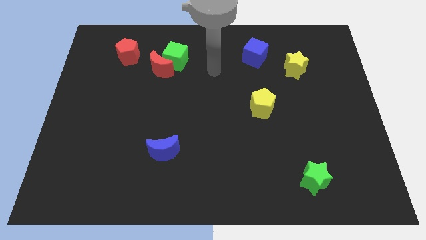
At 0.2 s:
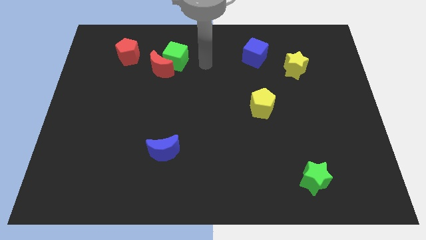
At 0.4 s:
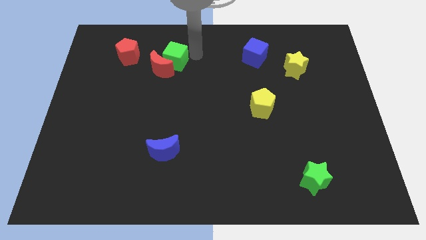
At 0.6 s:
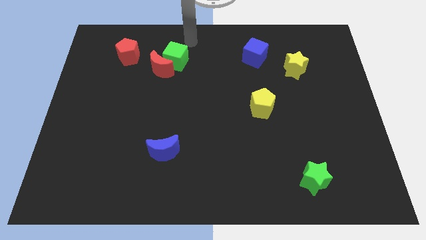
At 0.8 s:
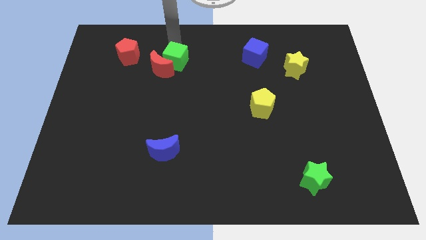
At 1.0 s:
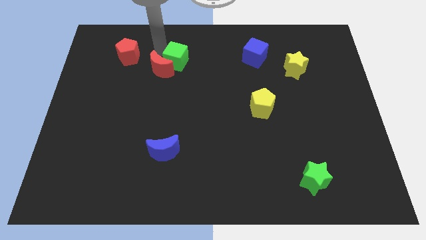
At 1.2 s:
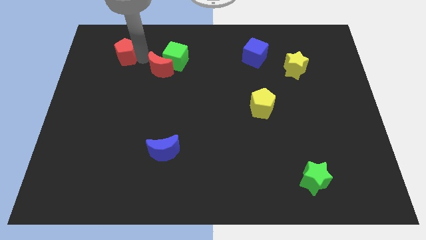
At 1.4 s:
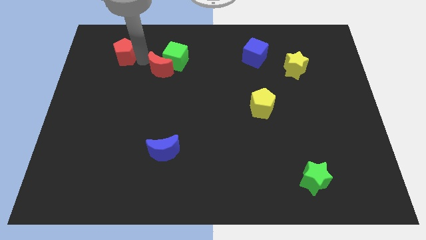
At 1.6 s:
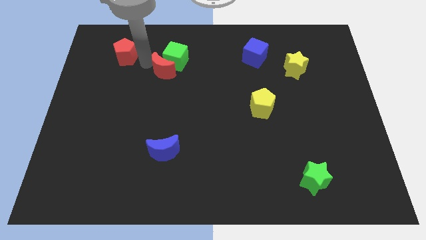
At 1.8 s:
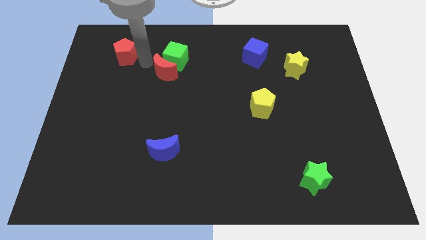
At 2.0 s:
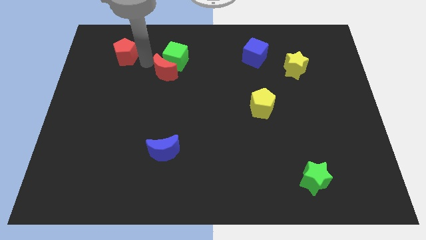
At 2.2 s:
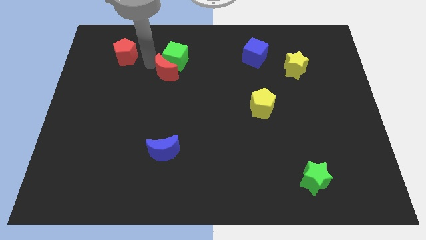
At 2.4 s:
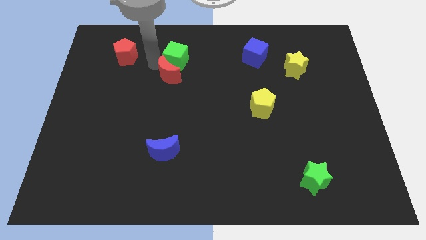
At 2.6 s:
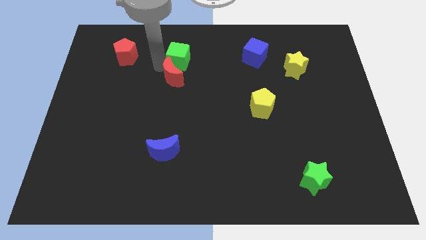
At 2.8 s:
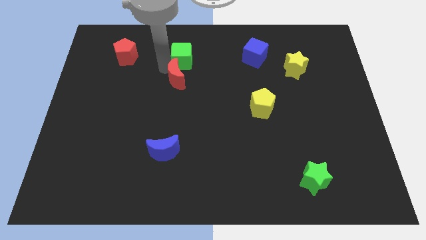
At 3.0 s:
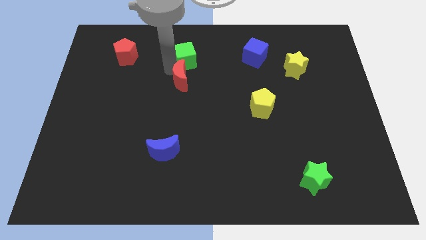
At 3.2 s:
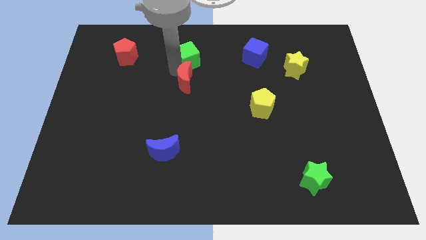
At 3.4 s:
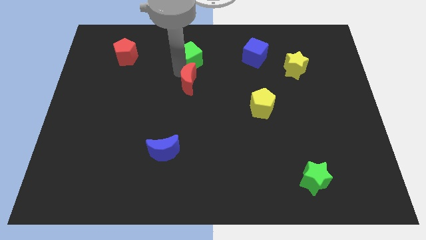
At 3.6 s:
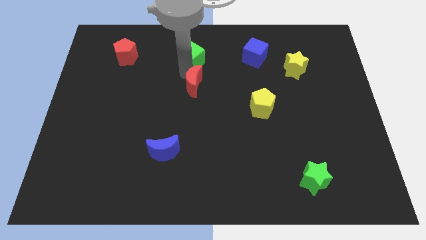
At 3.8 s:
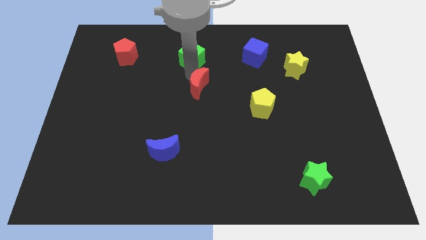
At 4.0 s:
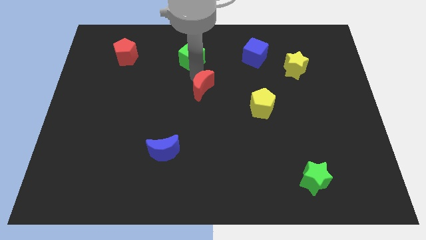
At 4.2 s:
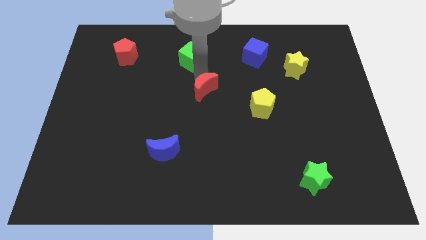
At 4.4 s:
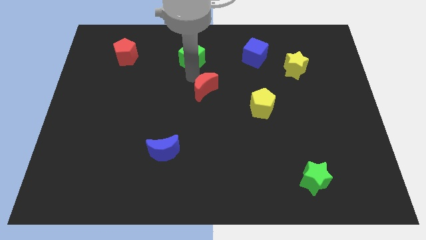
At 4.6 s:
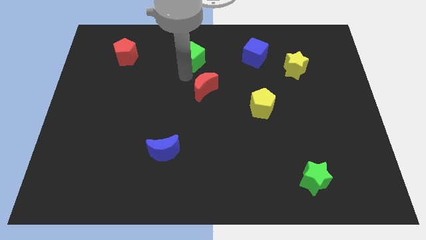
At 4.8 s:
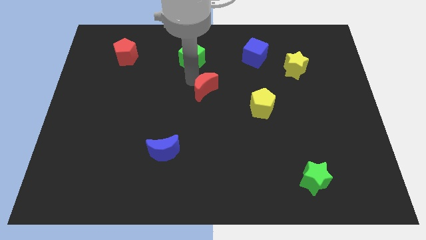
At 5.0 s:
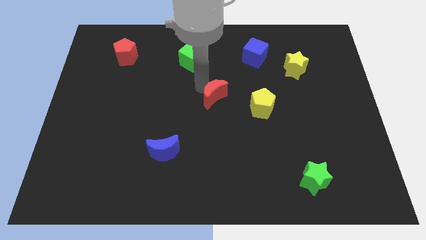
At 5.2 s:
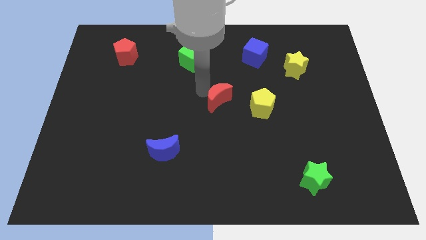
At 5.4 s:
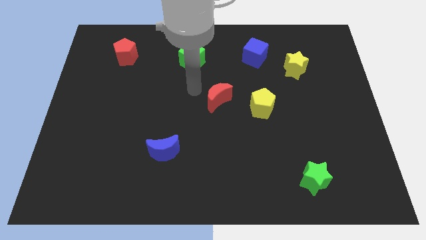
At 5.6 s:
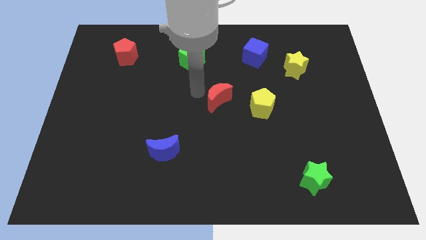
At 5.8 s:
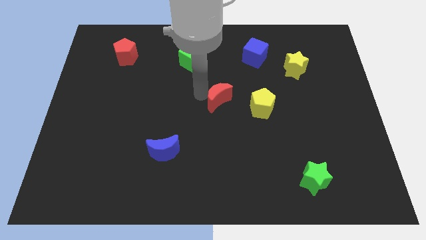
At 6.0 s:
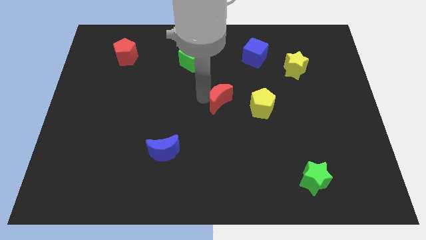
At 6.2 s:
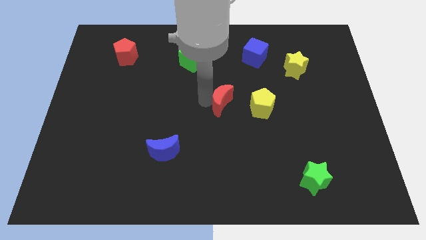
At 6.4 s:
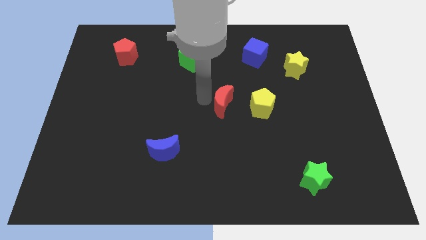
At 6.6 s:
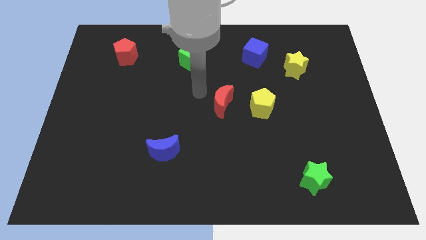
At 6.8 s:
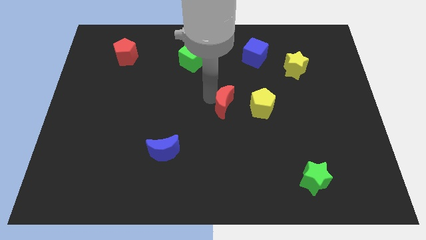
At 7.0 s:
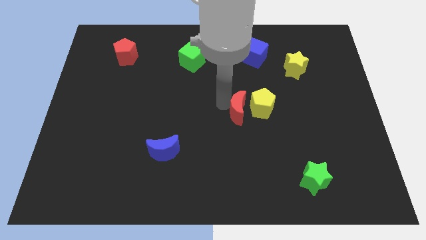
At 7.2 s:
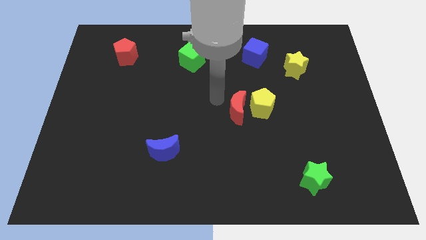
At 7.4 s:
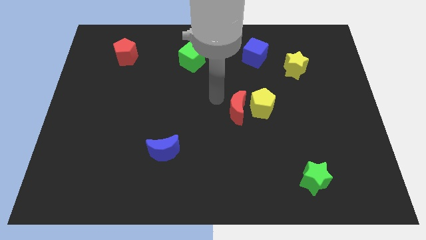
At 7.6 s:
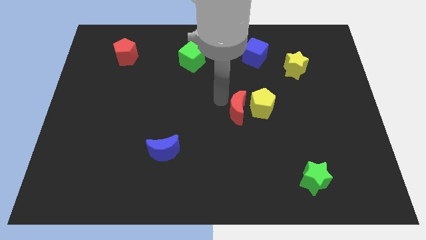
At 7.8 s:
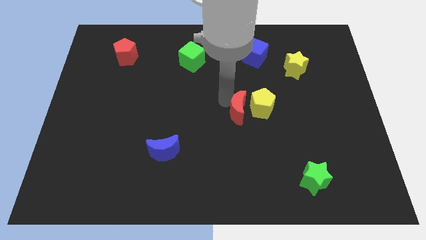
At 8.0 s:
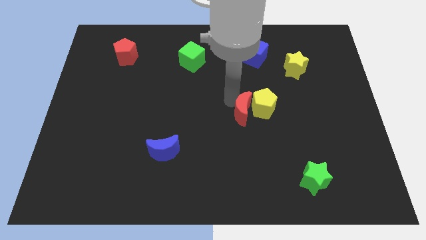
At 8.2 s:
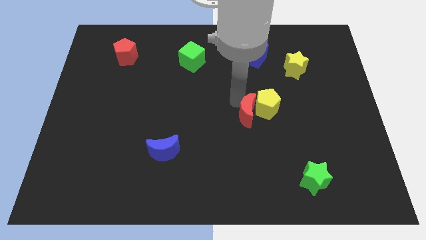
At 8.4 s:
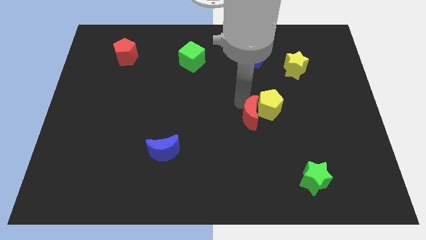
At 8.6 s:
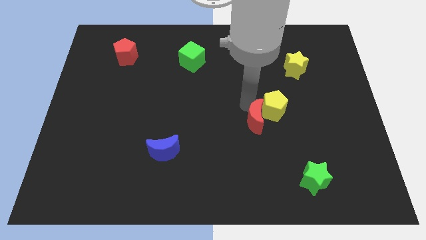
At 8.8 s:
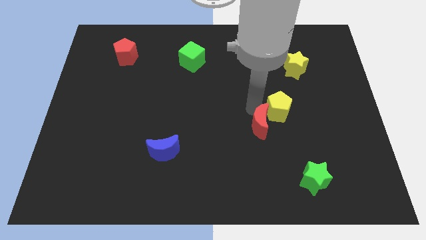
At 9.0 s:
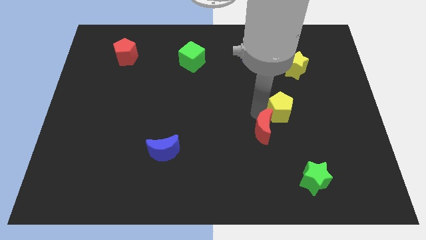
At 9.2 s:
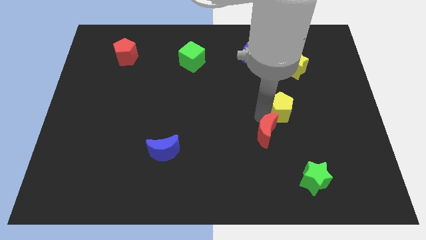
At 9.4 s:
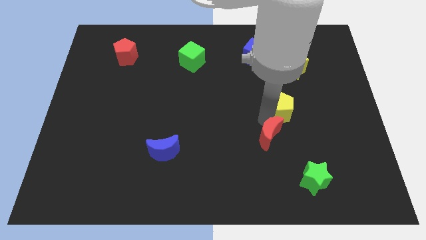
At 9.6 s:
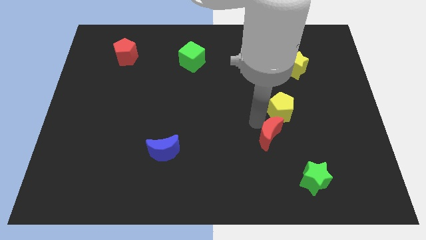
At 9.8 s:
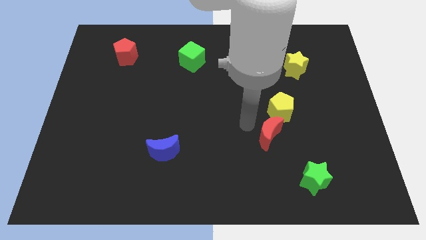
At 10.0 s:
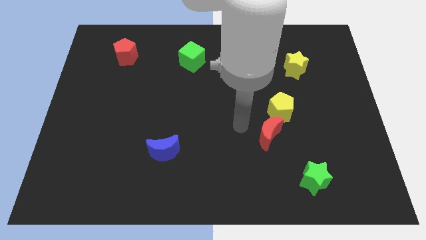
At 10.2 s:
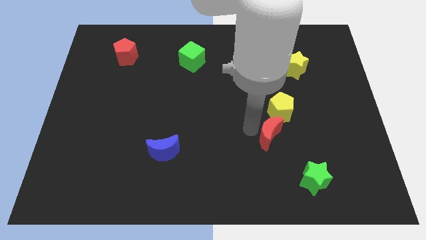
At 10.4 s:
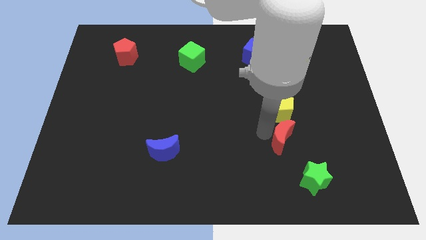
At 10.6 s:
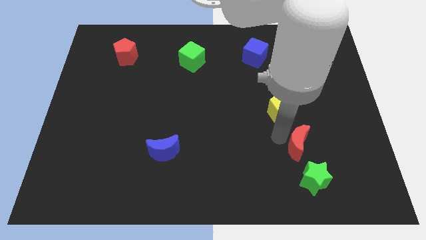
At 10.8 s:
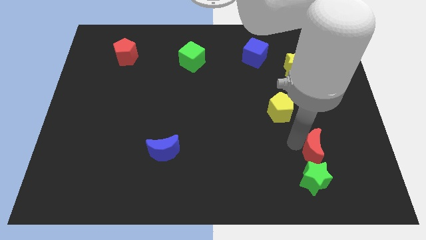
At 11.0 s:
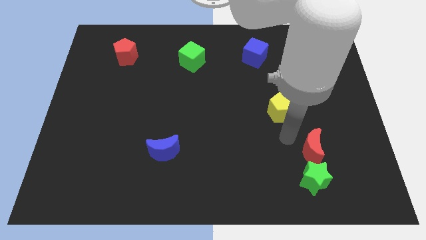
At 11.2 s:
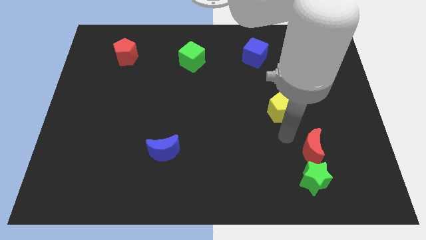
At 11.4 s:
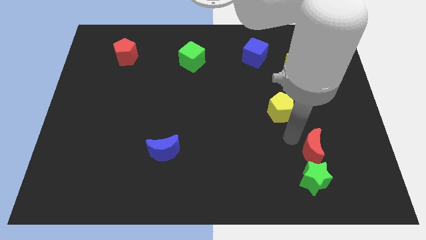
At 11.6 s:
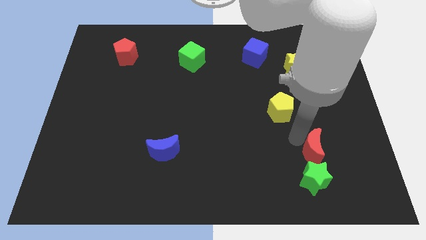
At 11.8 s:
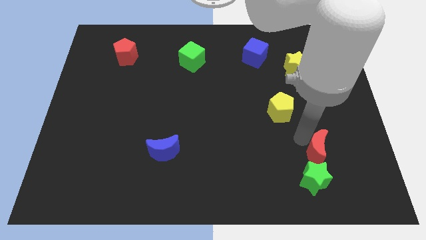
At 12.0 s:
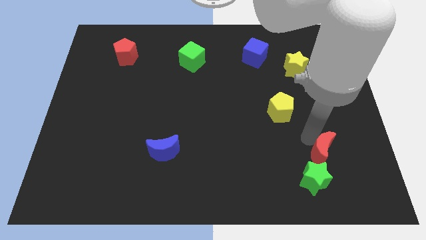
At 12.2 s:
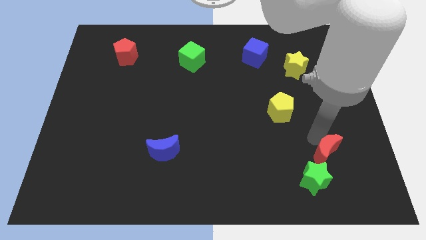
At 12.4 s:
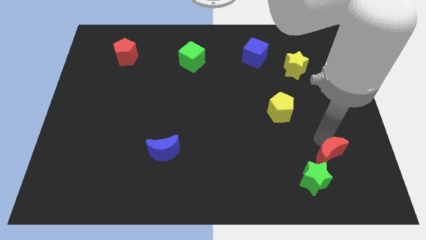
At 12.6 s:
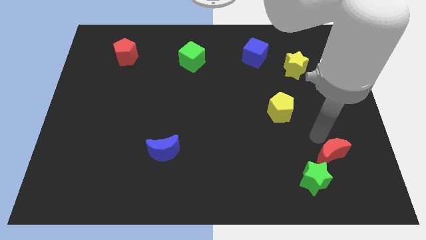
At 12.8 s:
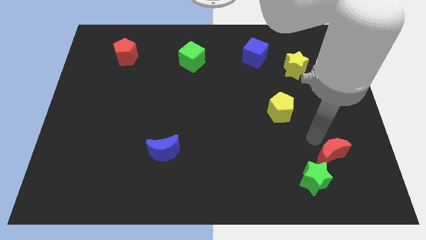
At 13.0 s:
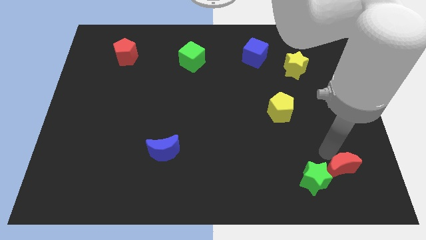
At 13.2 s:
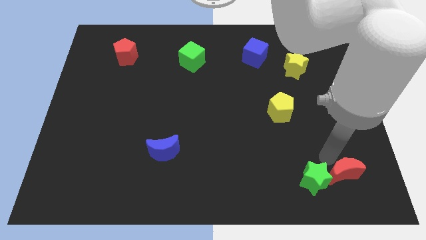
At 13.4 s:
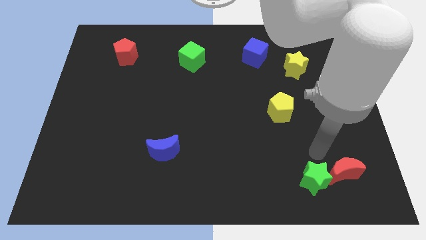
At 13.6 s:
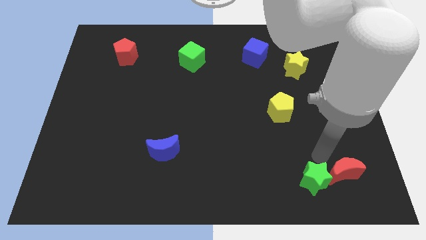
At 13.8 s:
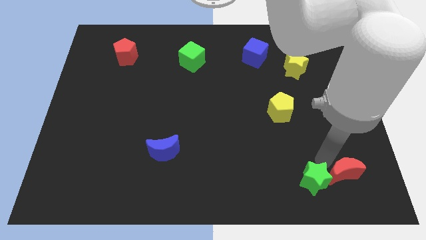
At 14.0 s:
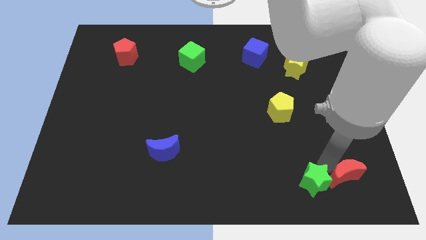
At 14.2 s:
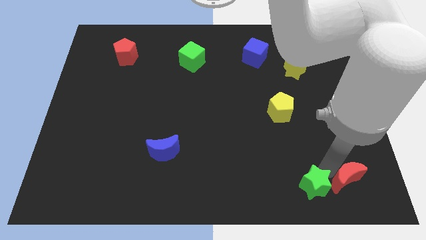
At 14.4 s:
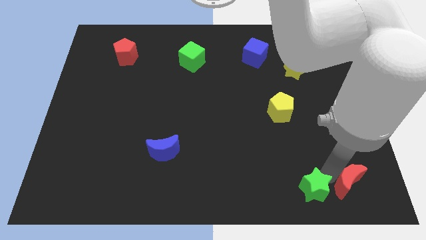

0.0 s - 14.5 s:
put the red moon to the bottom right corner
